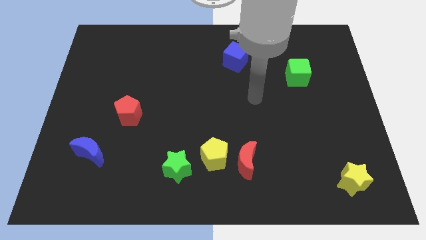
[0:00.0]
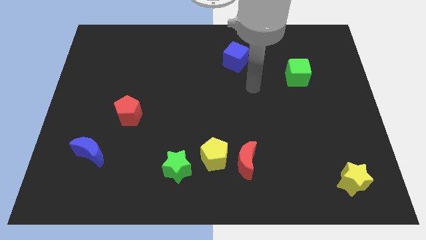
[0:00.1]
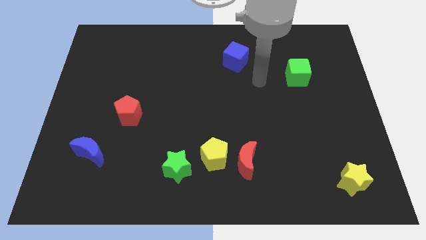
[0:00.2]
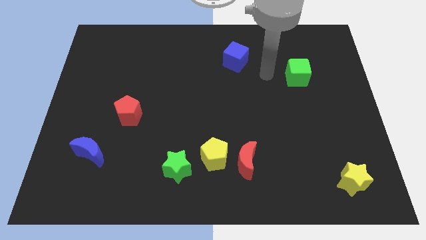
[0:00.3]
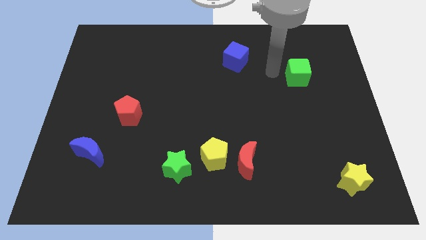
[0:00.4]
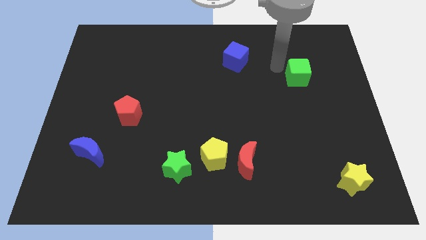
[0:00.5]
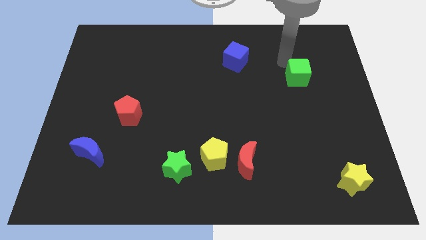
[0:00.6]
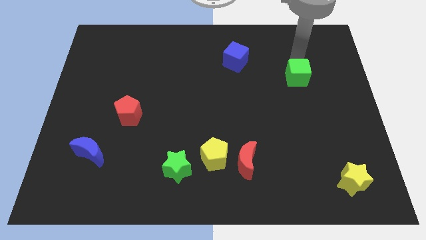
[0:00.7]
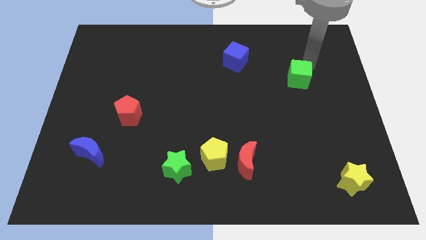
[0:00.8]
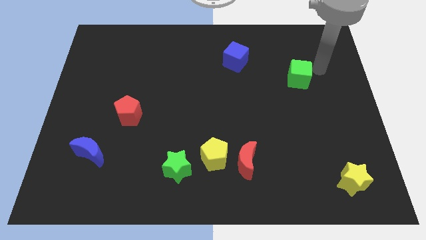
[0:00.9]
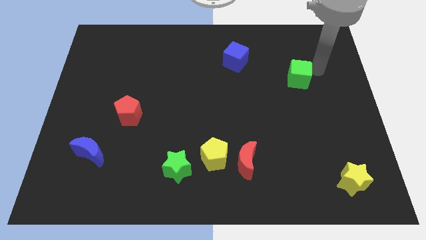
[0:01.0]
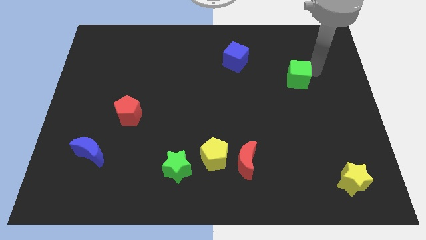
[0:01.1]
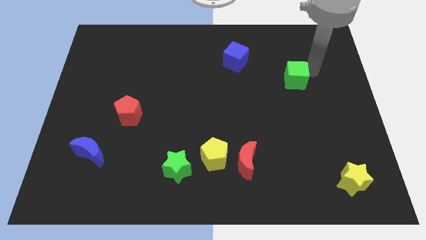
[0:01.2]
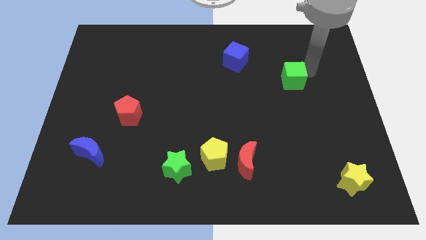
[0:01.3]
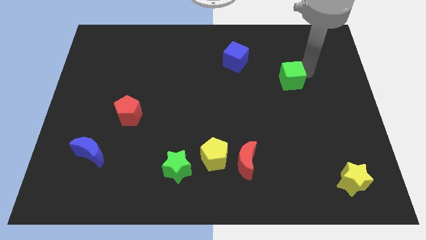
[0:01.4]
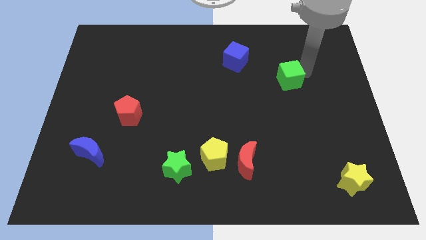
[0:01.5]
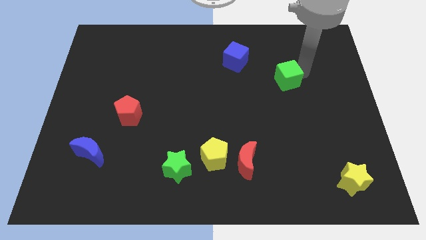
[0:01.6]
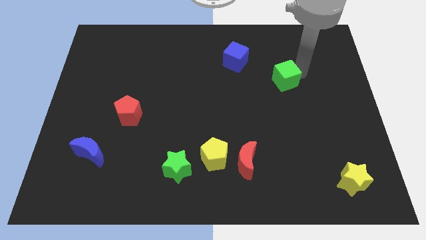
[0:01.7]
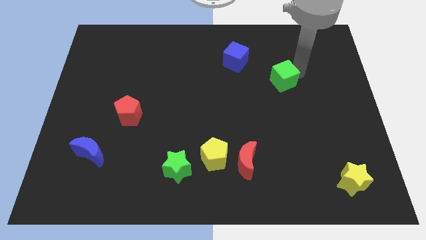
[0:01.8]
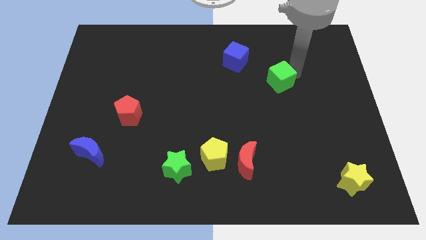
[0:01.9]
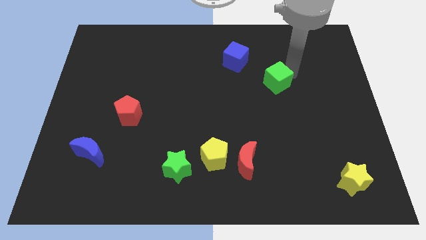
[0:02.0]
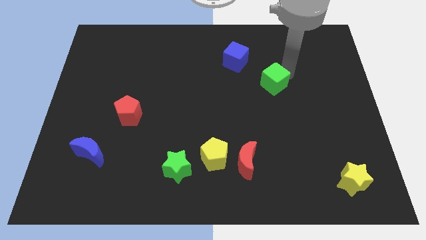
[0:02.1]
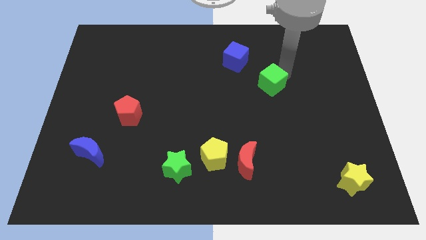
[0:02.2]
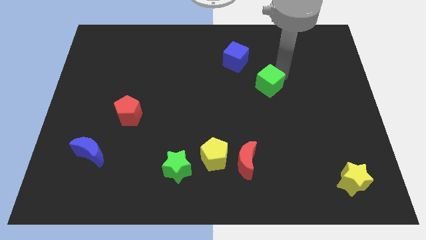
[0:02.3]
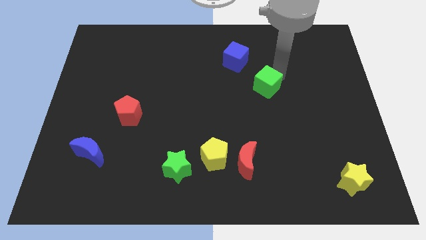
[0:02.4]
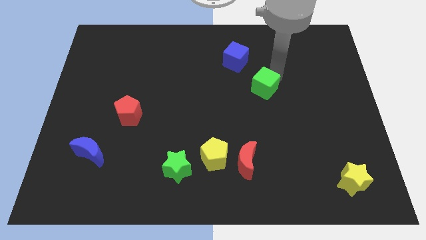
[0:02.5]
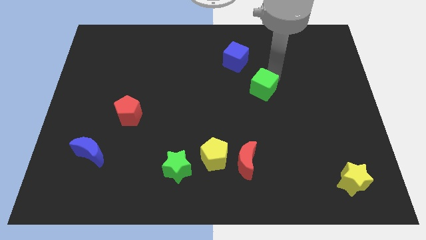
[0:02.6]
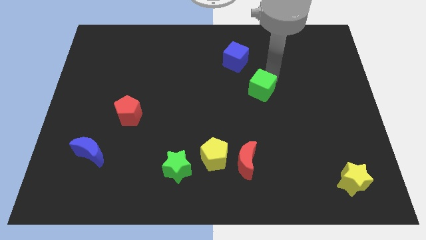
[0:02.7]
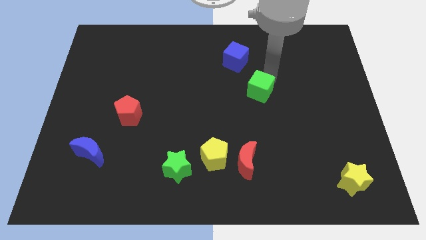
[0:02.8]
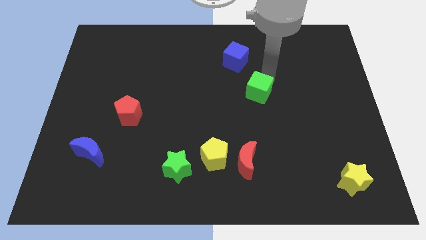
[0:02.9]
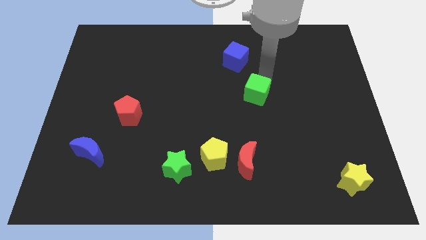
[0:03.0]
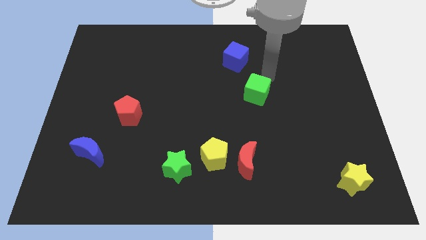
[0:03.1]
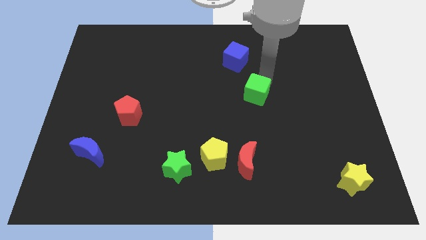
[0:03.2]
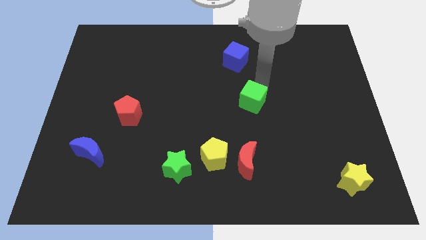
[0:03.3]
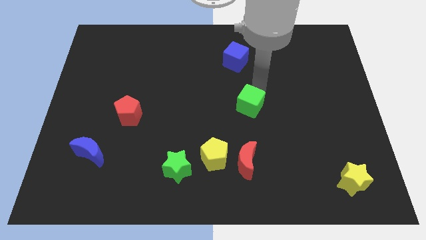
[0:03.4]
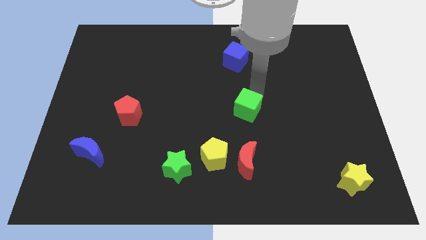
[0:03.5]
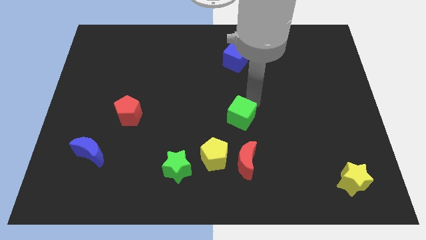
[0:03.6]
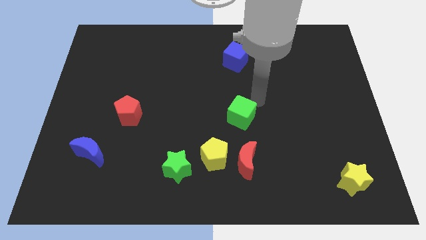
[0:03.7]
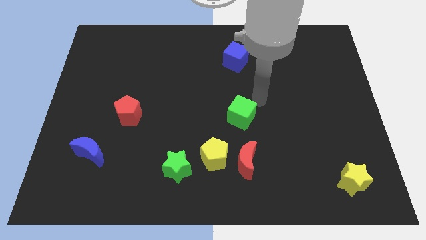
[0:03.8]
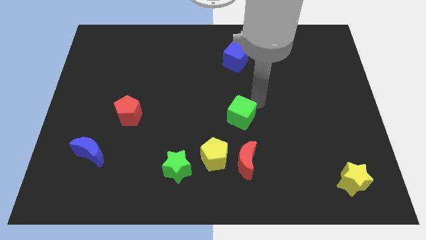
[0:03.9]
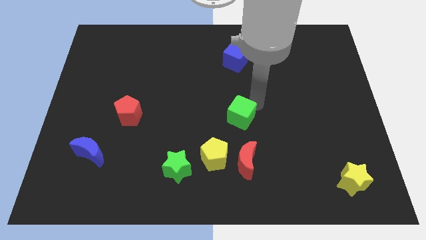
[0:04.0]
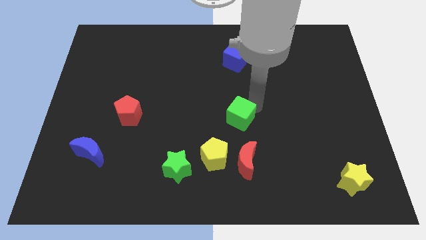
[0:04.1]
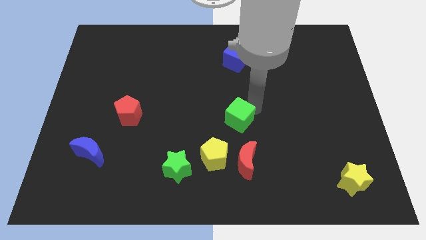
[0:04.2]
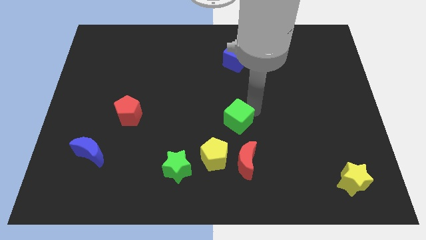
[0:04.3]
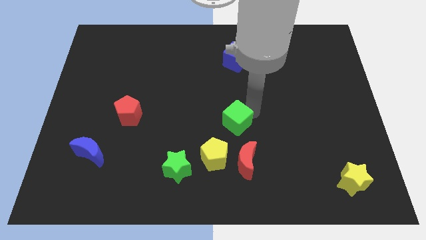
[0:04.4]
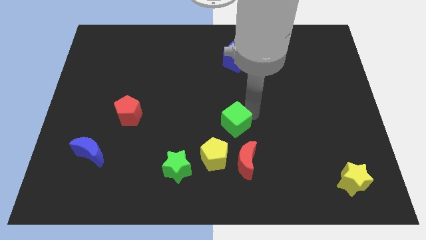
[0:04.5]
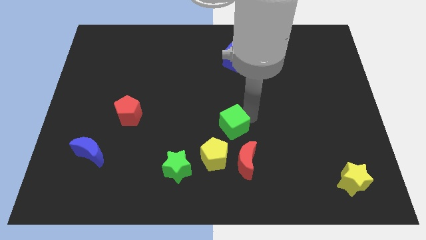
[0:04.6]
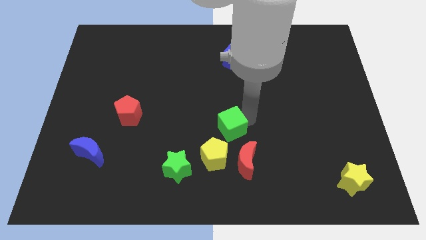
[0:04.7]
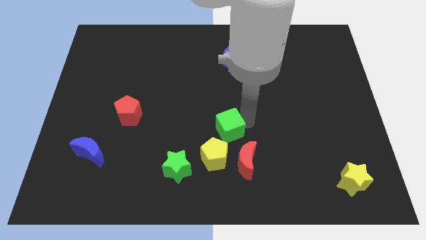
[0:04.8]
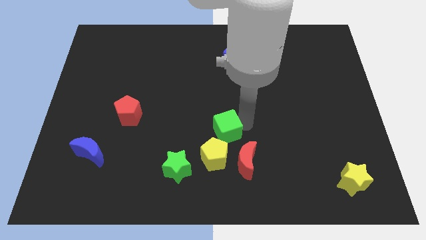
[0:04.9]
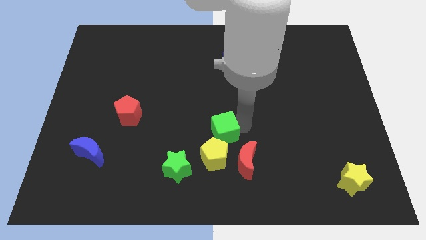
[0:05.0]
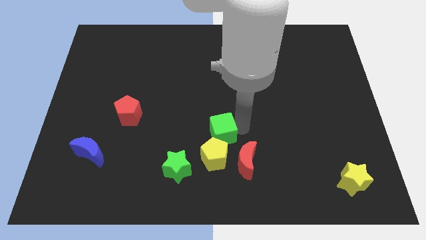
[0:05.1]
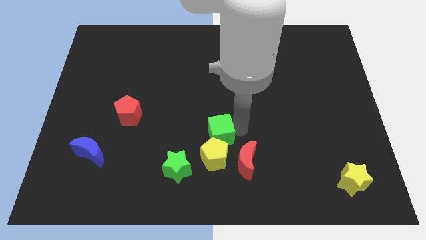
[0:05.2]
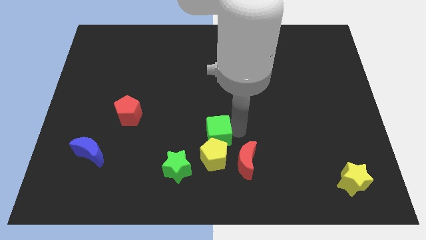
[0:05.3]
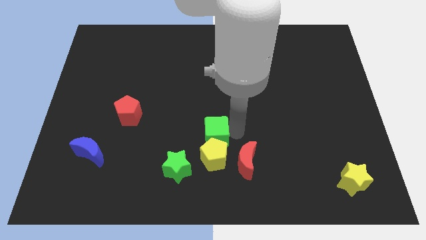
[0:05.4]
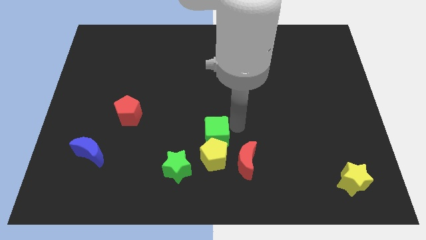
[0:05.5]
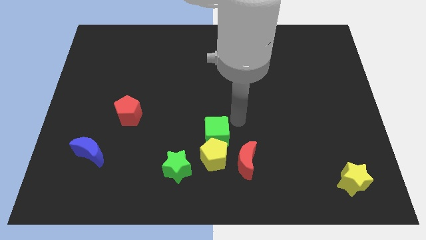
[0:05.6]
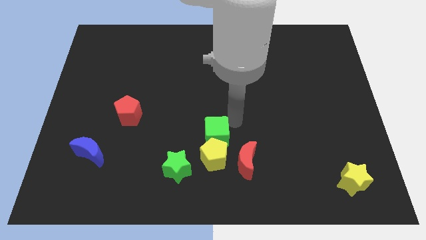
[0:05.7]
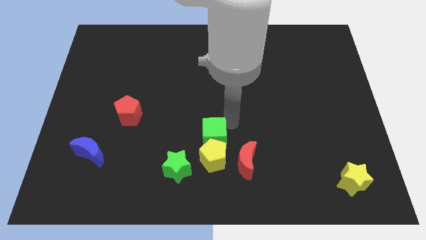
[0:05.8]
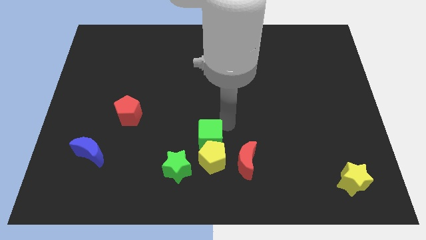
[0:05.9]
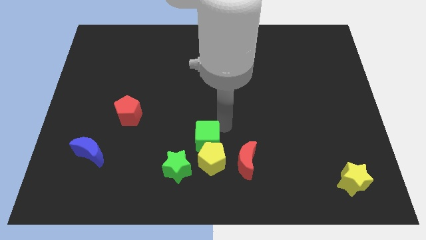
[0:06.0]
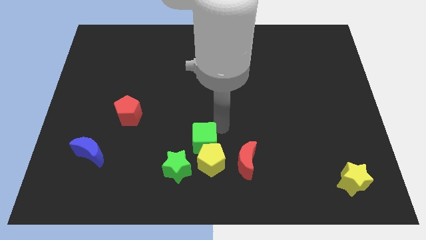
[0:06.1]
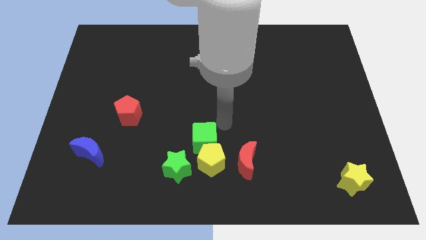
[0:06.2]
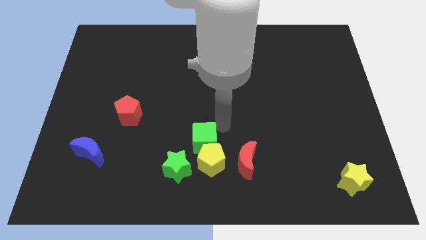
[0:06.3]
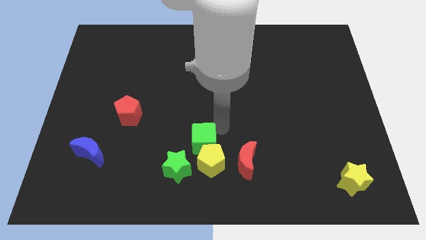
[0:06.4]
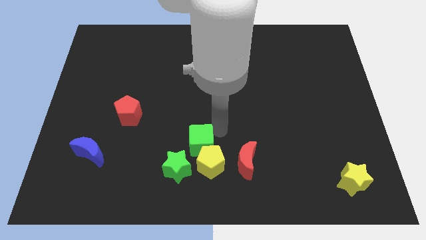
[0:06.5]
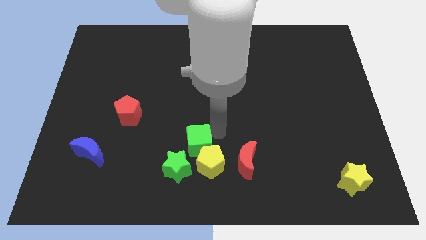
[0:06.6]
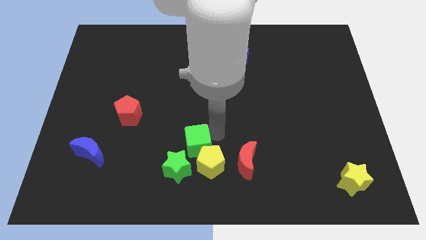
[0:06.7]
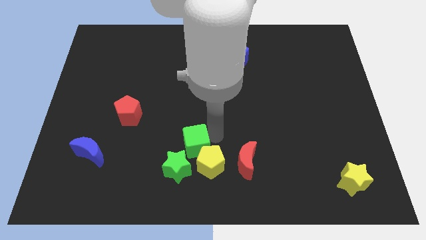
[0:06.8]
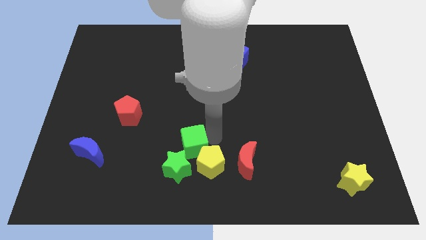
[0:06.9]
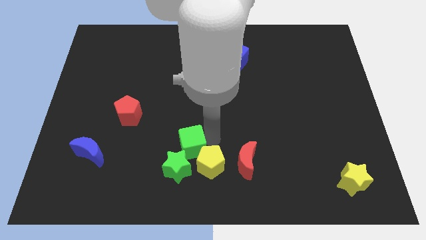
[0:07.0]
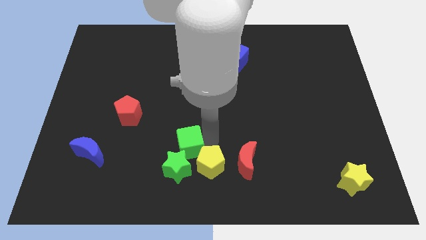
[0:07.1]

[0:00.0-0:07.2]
put the green cube next to the green star
